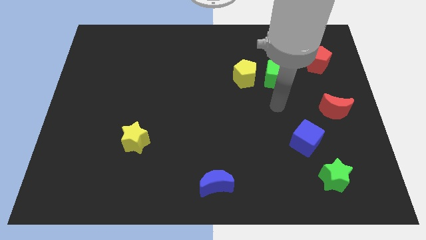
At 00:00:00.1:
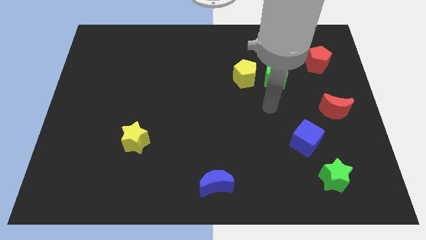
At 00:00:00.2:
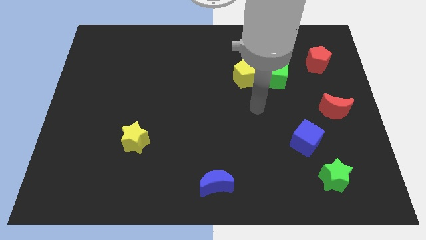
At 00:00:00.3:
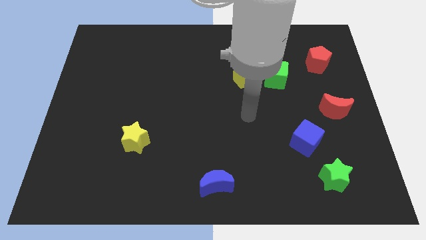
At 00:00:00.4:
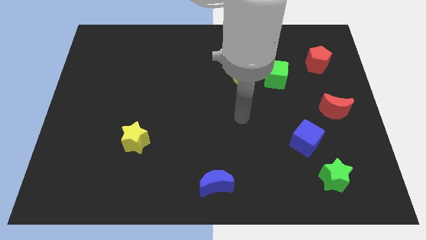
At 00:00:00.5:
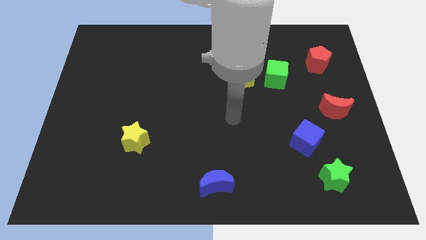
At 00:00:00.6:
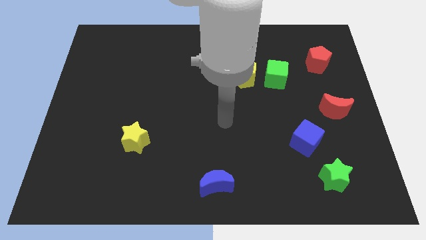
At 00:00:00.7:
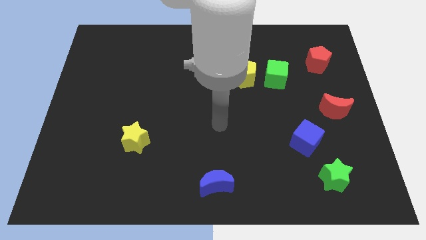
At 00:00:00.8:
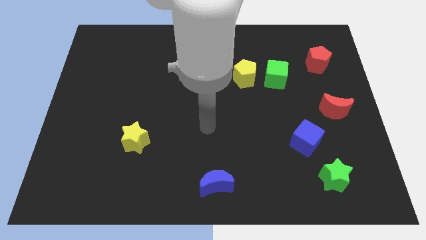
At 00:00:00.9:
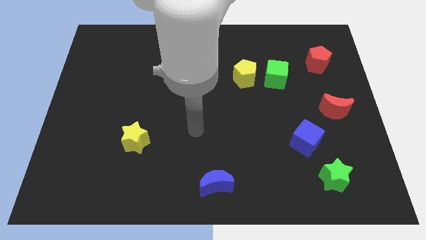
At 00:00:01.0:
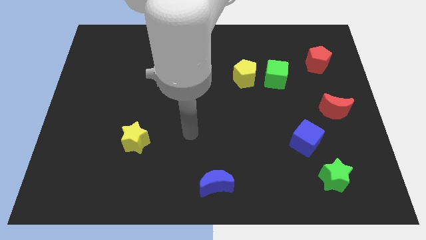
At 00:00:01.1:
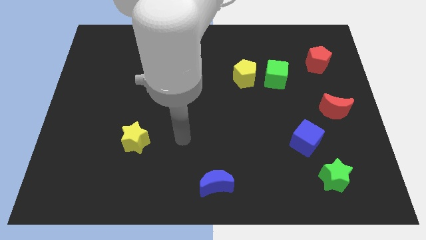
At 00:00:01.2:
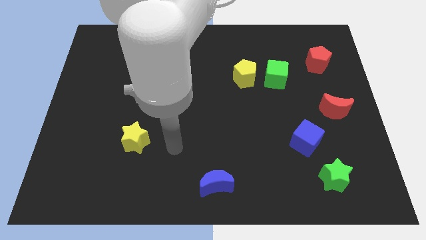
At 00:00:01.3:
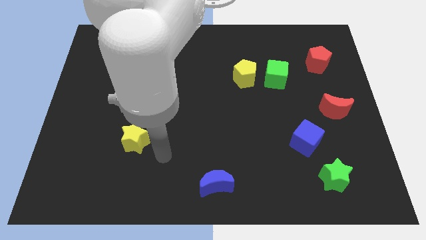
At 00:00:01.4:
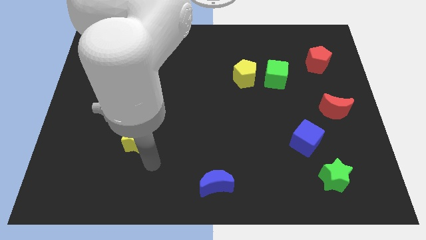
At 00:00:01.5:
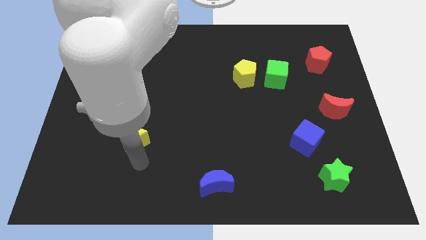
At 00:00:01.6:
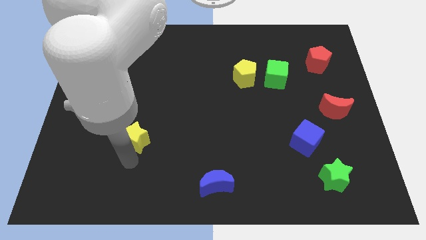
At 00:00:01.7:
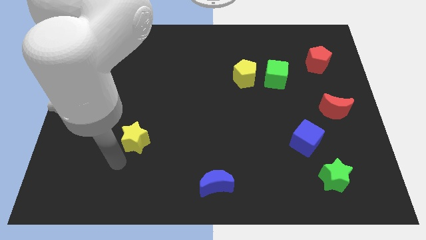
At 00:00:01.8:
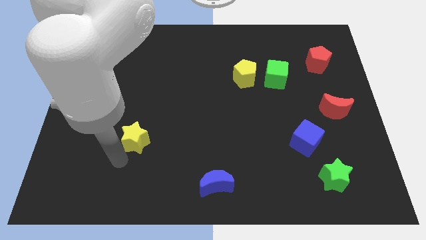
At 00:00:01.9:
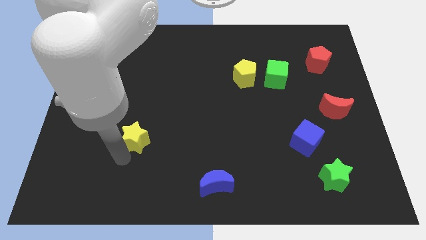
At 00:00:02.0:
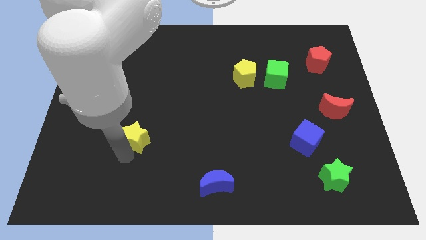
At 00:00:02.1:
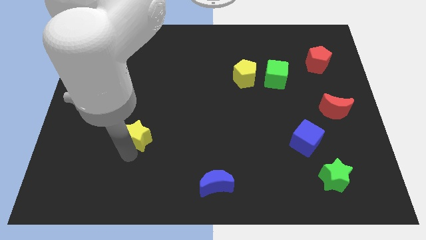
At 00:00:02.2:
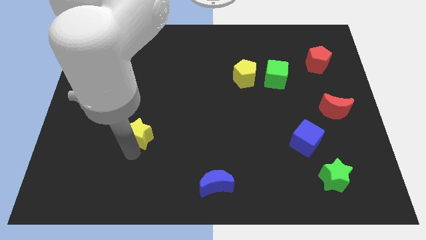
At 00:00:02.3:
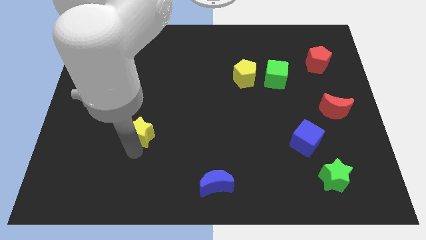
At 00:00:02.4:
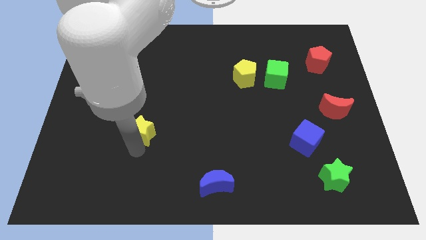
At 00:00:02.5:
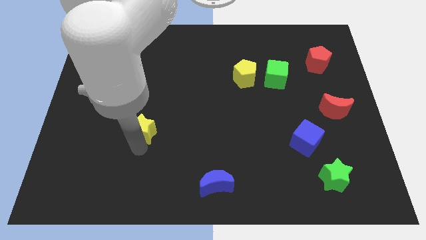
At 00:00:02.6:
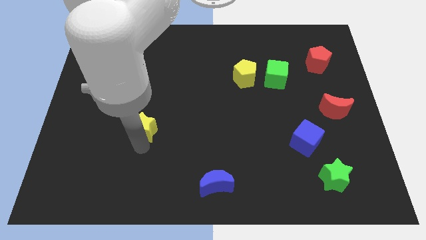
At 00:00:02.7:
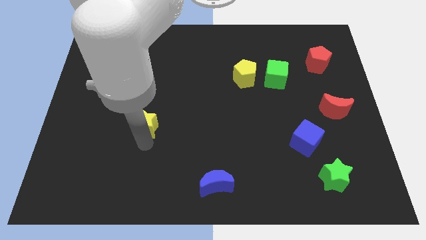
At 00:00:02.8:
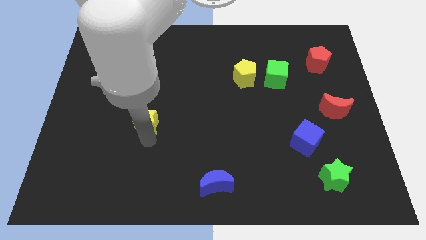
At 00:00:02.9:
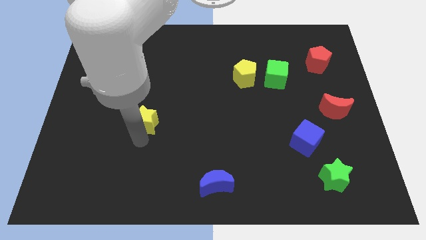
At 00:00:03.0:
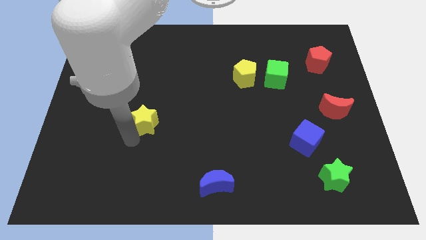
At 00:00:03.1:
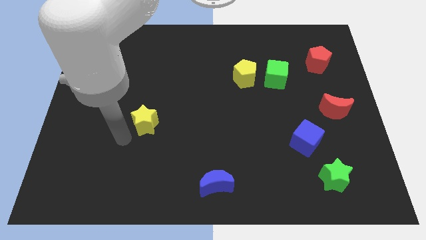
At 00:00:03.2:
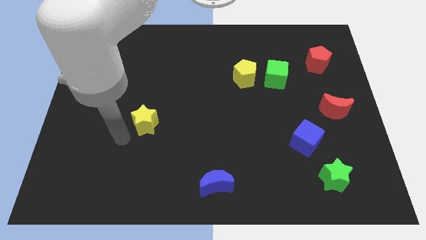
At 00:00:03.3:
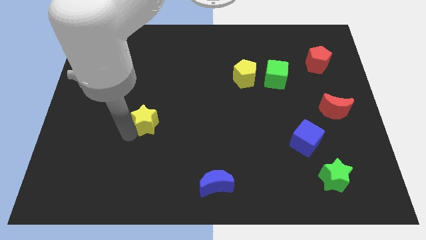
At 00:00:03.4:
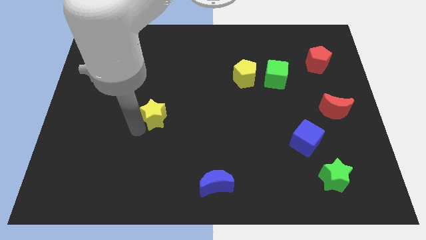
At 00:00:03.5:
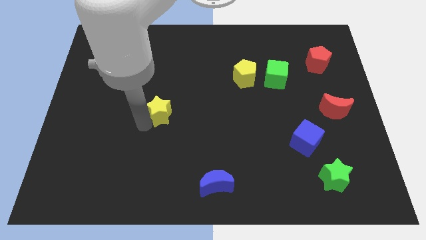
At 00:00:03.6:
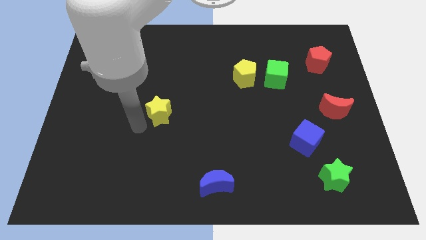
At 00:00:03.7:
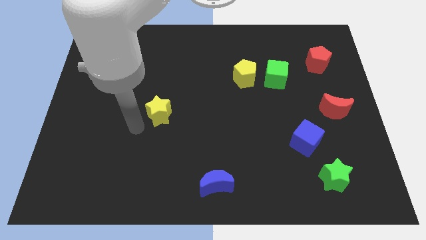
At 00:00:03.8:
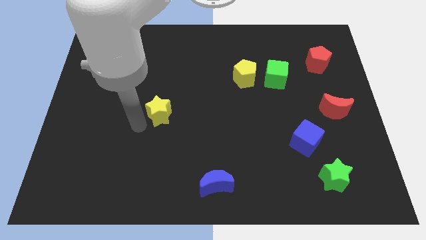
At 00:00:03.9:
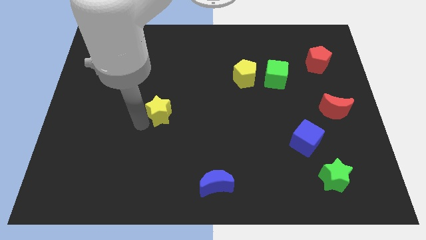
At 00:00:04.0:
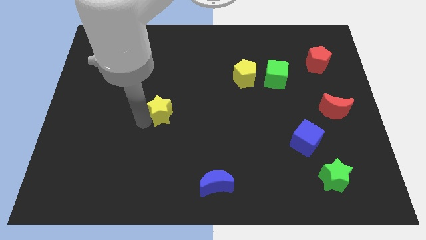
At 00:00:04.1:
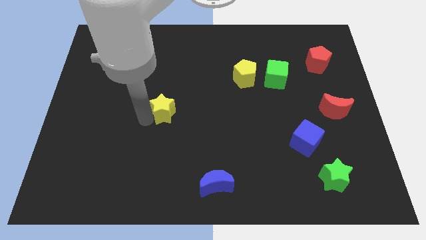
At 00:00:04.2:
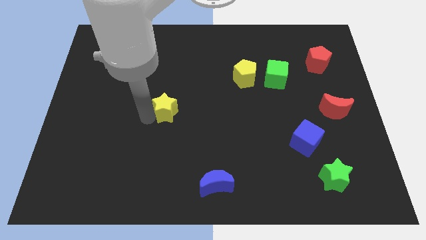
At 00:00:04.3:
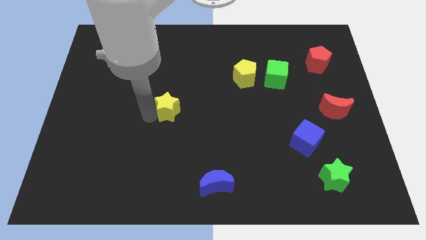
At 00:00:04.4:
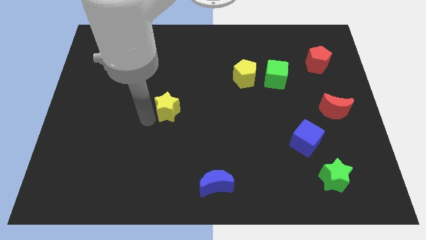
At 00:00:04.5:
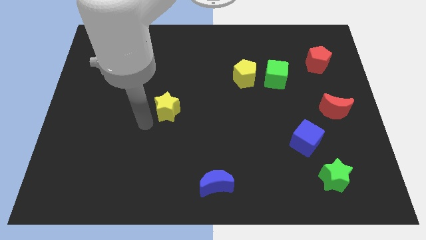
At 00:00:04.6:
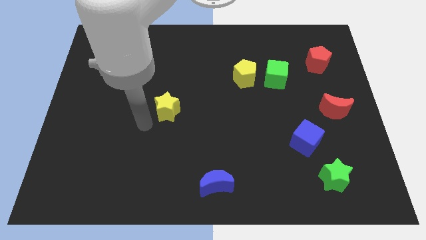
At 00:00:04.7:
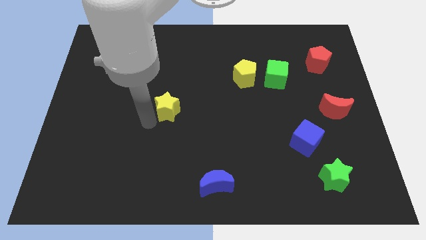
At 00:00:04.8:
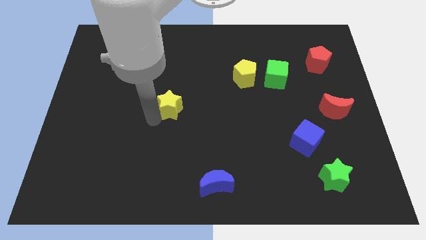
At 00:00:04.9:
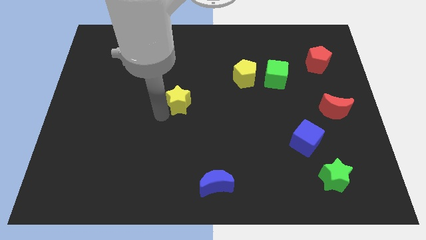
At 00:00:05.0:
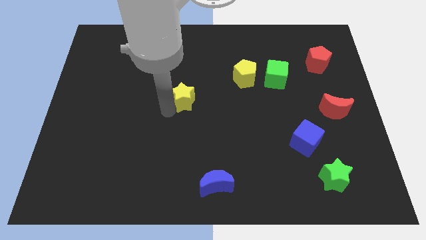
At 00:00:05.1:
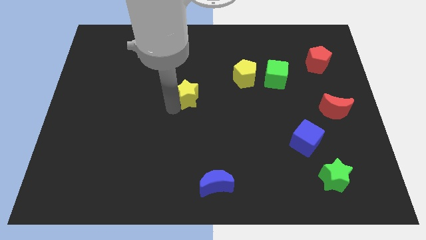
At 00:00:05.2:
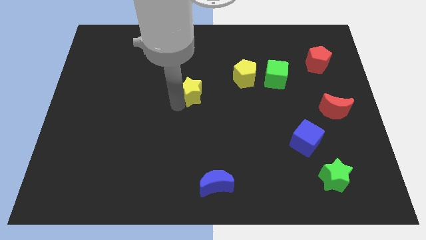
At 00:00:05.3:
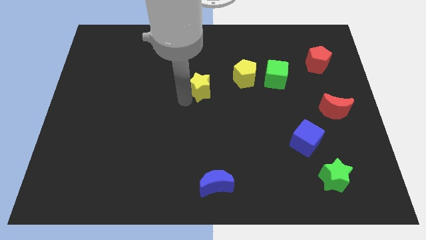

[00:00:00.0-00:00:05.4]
move the yellow star up and right

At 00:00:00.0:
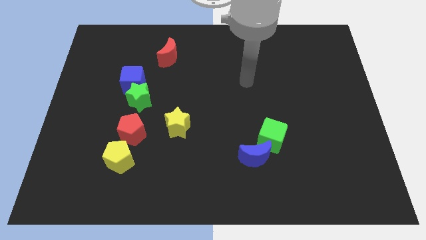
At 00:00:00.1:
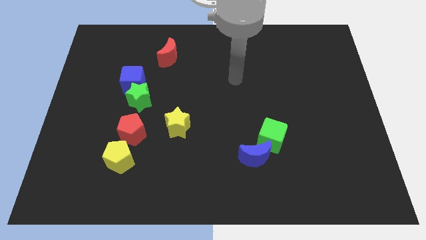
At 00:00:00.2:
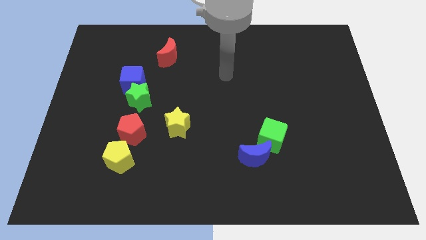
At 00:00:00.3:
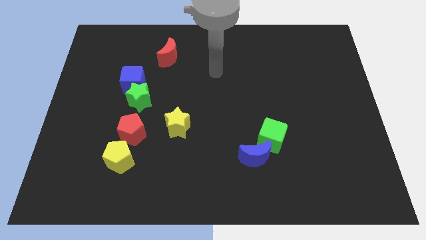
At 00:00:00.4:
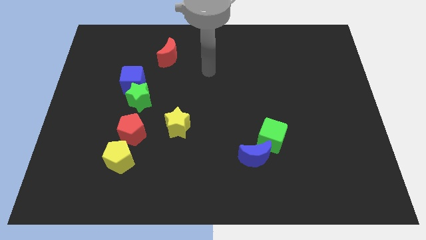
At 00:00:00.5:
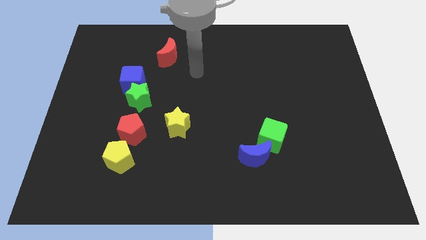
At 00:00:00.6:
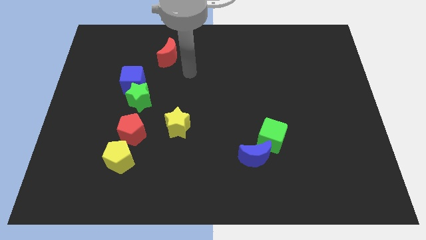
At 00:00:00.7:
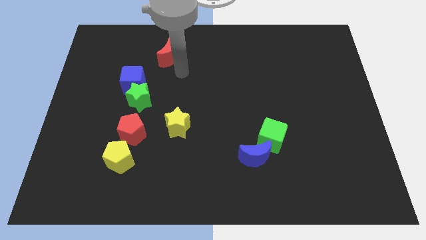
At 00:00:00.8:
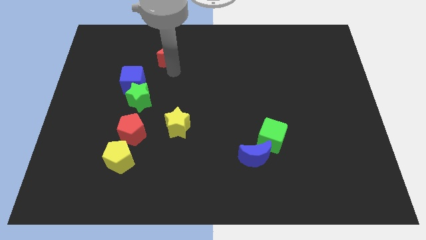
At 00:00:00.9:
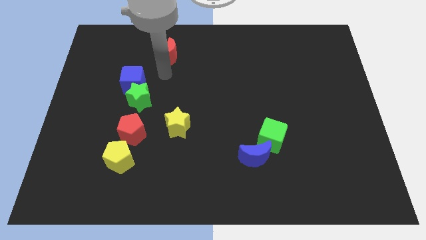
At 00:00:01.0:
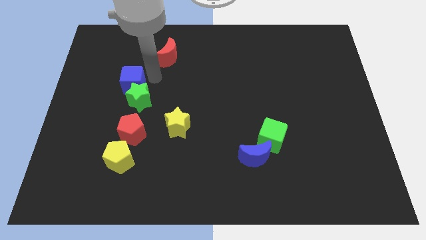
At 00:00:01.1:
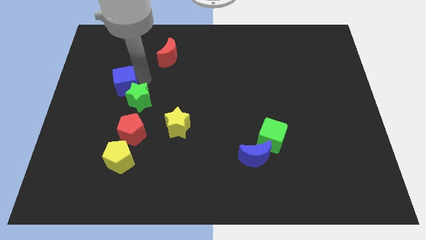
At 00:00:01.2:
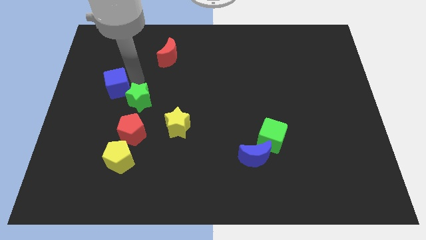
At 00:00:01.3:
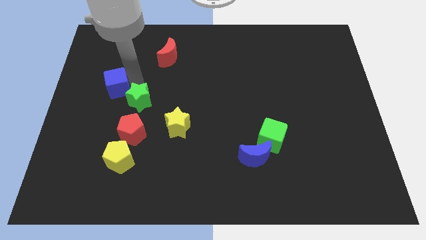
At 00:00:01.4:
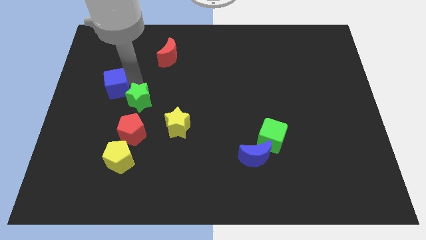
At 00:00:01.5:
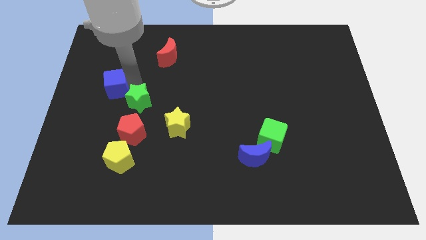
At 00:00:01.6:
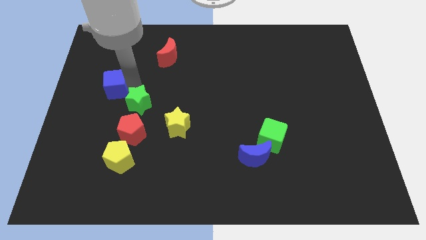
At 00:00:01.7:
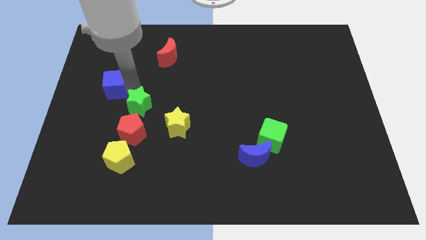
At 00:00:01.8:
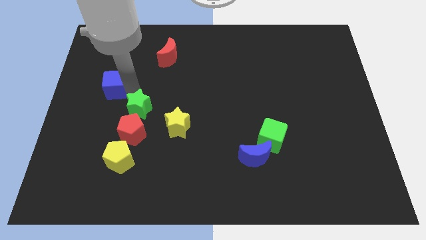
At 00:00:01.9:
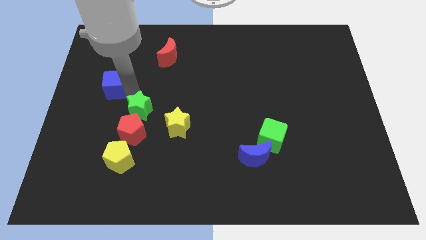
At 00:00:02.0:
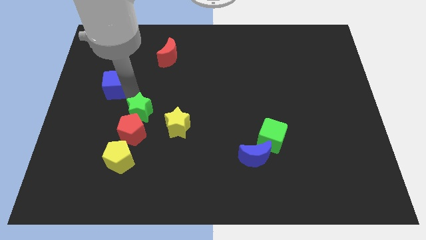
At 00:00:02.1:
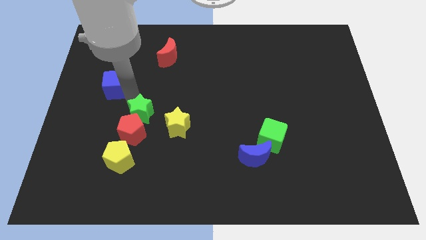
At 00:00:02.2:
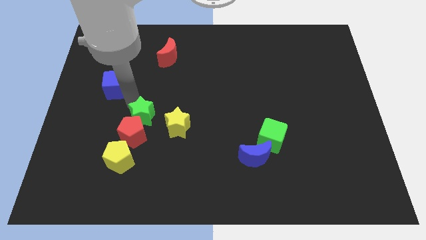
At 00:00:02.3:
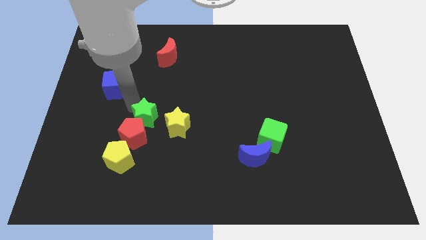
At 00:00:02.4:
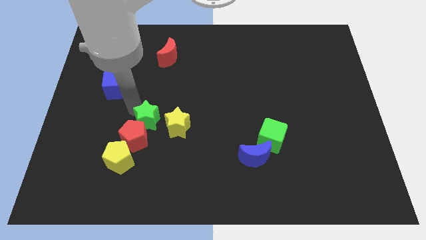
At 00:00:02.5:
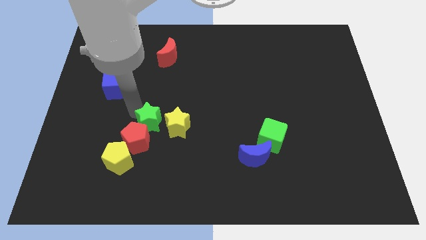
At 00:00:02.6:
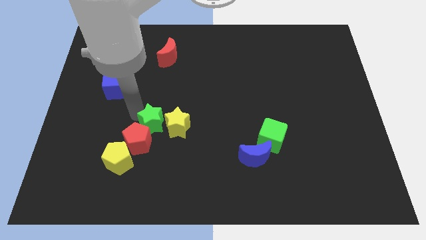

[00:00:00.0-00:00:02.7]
slightly push the green star diagonally downwards and to the right
